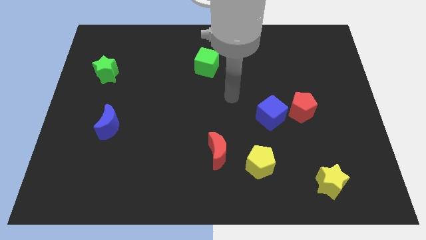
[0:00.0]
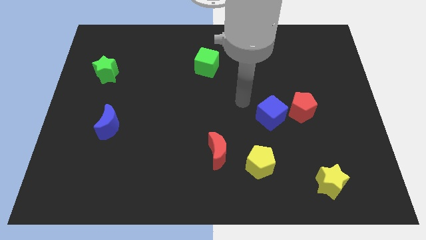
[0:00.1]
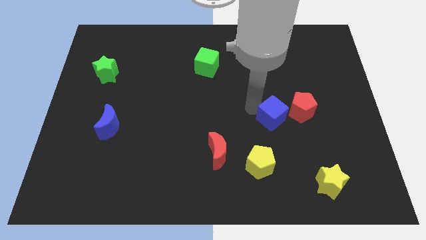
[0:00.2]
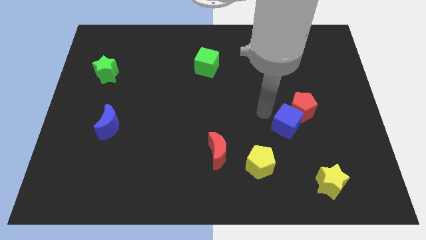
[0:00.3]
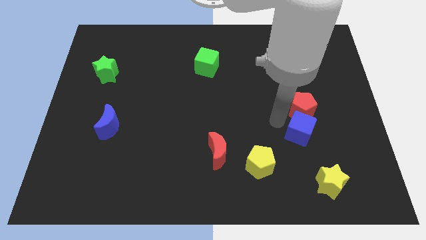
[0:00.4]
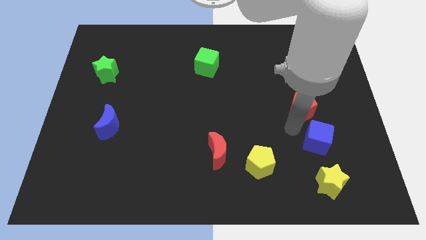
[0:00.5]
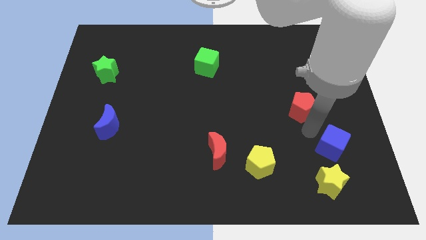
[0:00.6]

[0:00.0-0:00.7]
pull the red pentagon apart from the blue cube

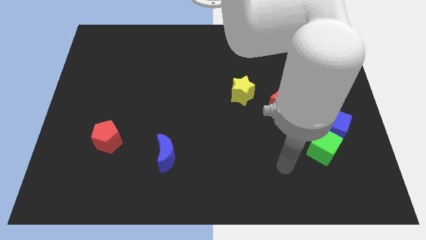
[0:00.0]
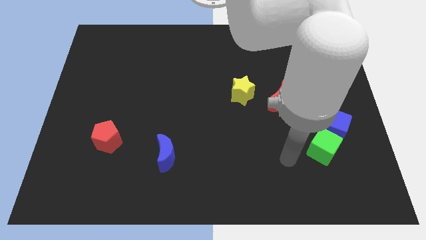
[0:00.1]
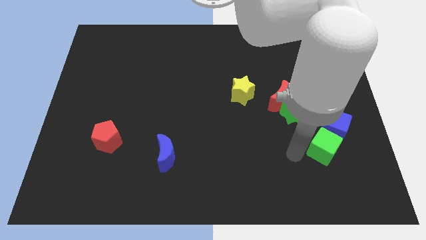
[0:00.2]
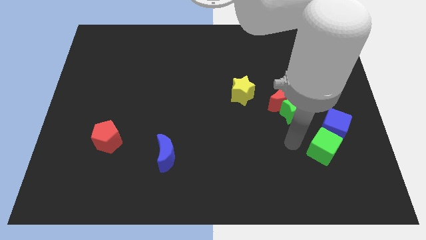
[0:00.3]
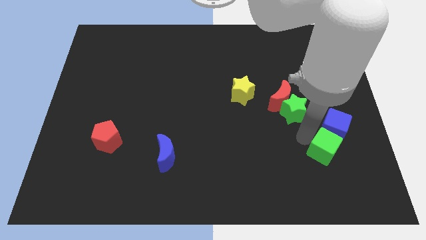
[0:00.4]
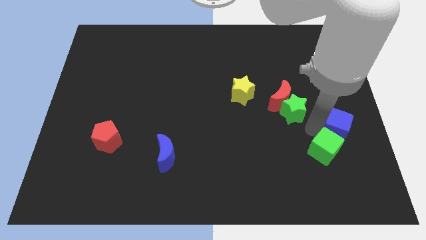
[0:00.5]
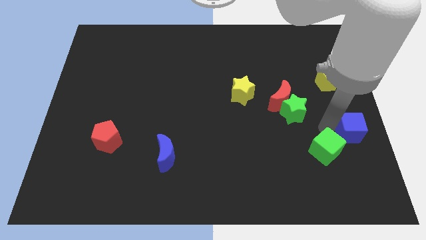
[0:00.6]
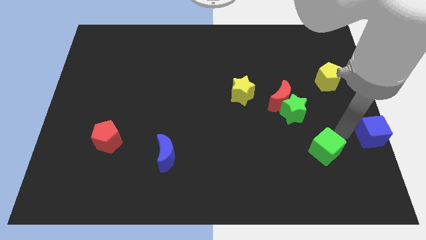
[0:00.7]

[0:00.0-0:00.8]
move the green cube away from the blue cube

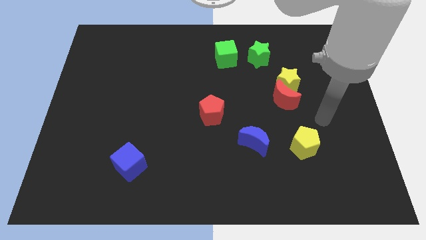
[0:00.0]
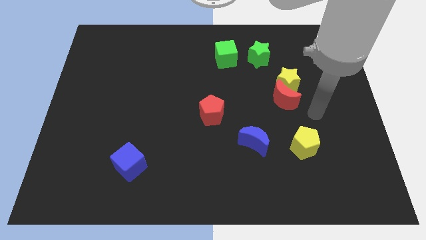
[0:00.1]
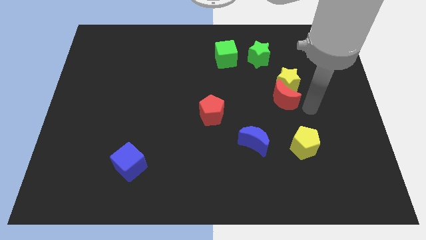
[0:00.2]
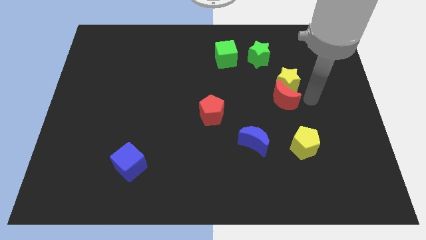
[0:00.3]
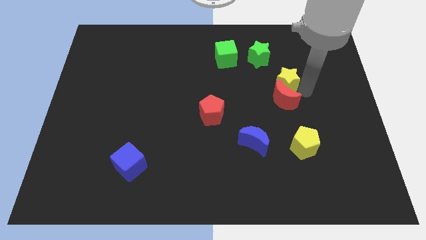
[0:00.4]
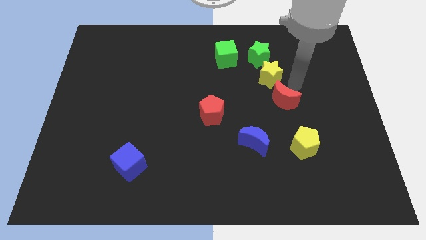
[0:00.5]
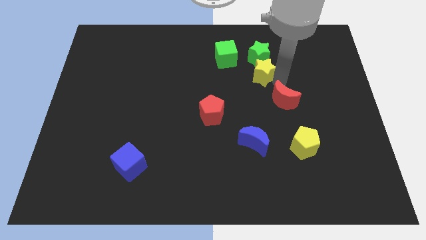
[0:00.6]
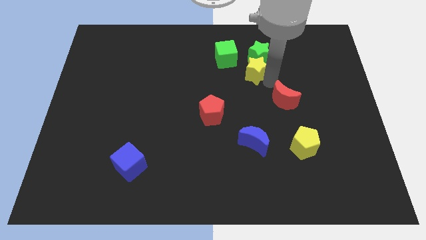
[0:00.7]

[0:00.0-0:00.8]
pull the red moon apart from the yellow star

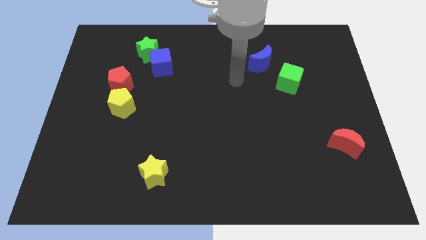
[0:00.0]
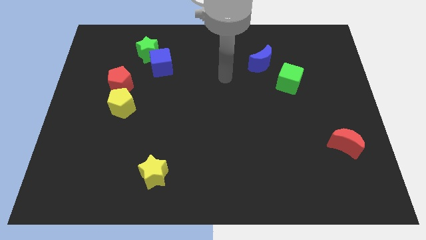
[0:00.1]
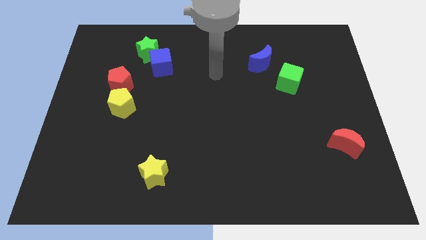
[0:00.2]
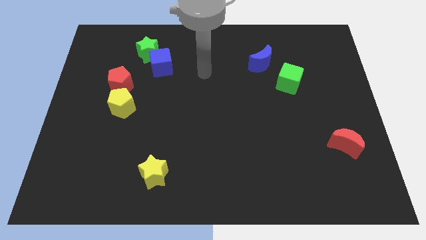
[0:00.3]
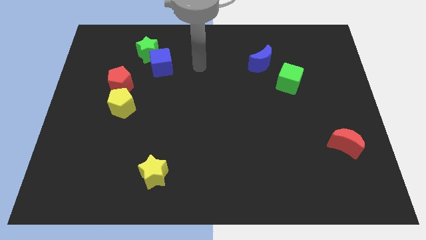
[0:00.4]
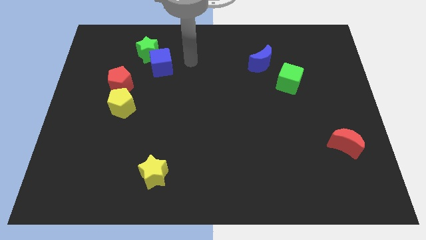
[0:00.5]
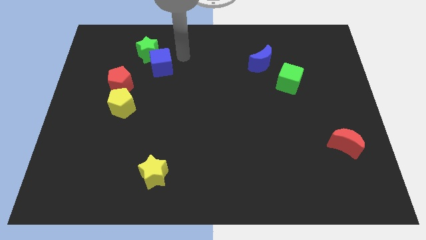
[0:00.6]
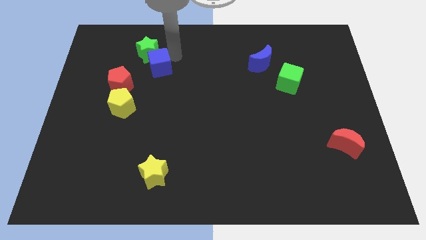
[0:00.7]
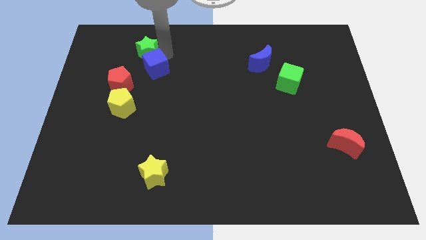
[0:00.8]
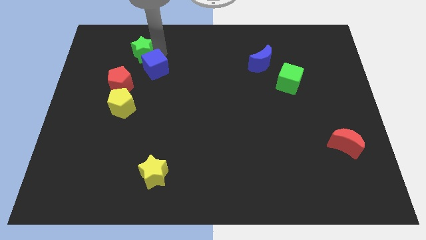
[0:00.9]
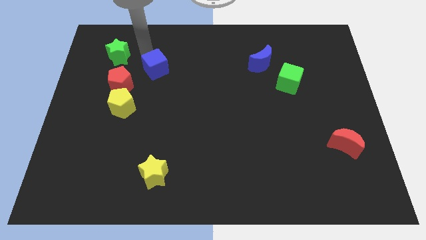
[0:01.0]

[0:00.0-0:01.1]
move the blue cube away from the green star

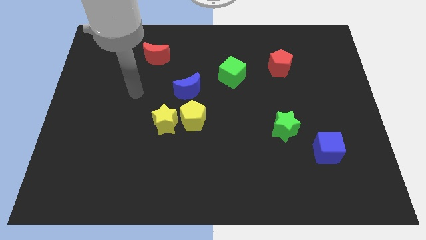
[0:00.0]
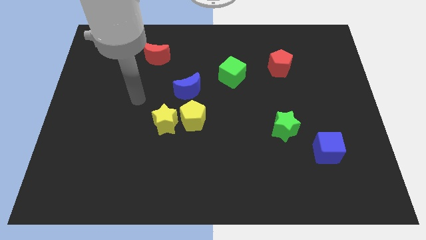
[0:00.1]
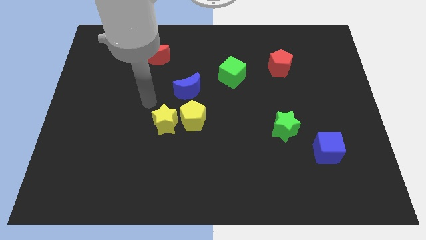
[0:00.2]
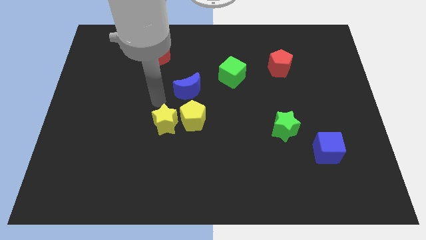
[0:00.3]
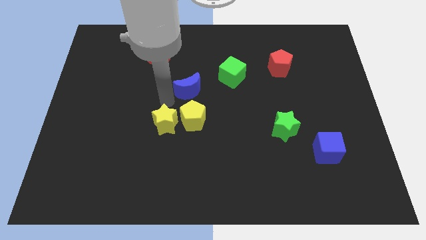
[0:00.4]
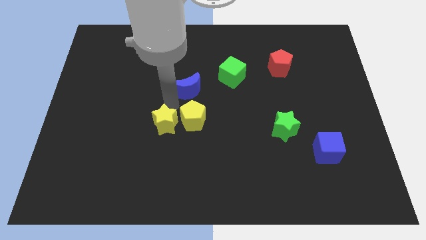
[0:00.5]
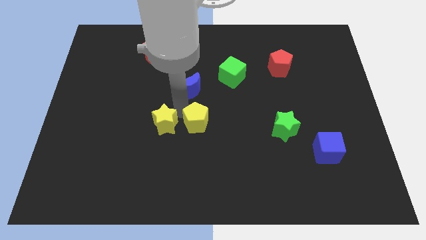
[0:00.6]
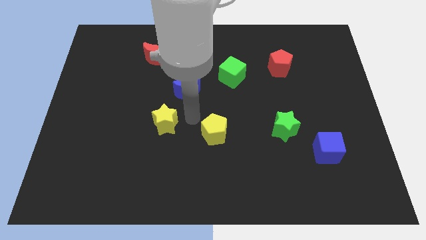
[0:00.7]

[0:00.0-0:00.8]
separate the yellow star from the yellow pentagon

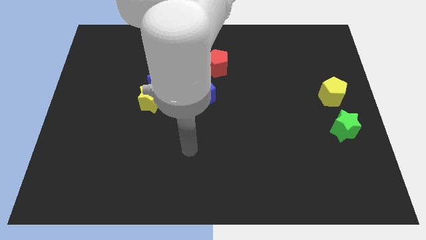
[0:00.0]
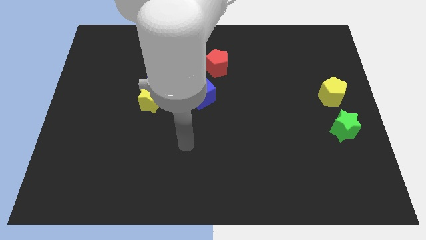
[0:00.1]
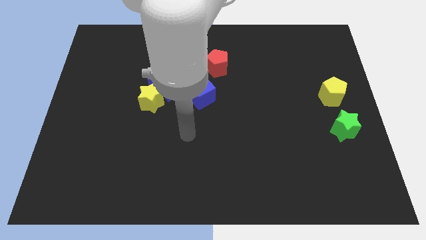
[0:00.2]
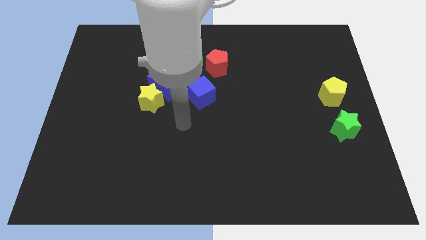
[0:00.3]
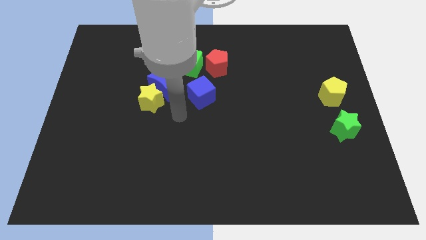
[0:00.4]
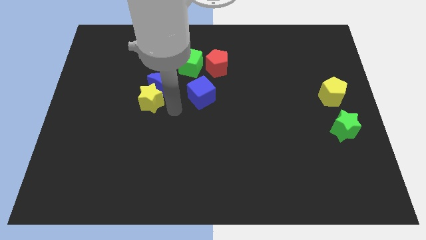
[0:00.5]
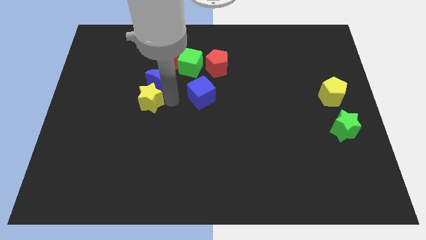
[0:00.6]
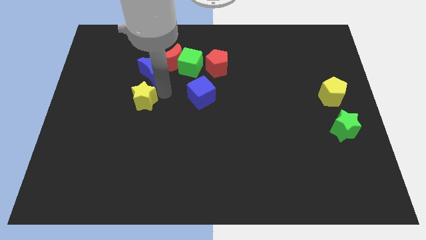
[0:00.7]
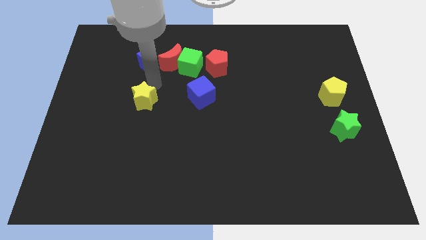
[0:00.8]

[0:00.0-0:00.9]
move the yellow star away from the blue moon

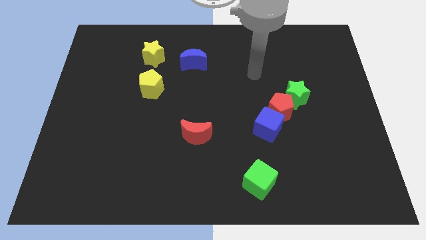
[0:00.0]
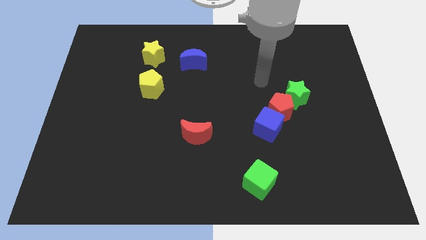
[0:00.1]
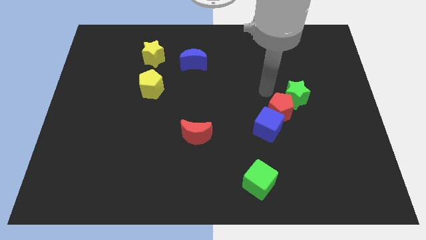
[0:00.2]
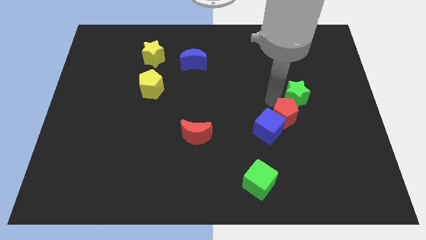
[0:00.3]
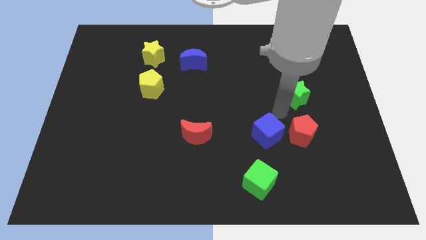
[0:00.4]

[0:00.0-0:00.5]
move the green star away from the red pentagon

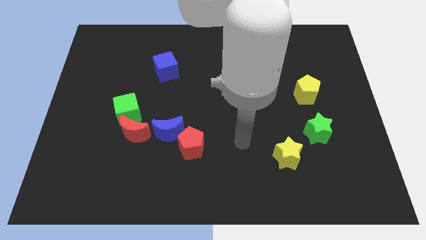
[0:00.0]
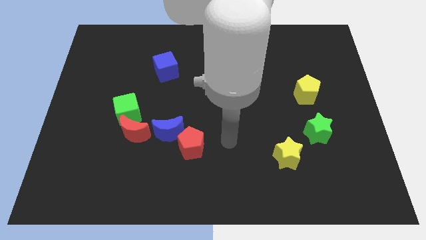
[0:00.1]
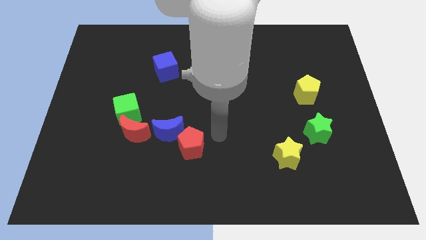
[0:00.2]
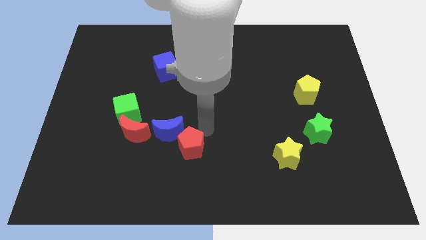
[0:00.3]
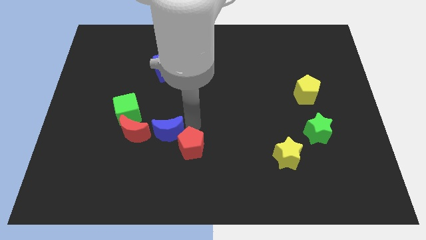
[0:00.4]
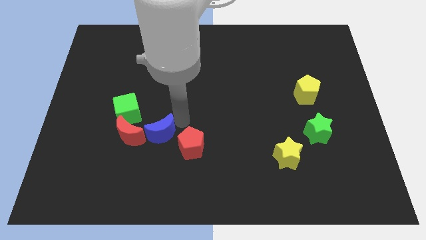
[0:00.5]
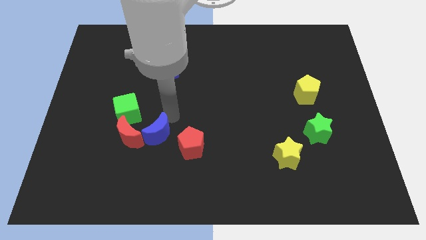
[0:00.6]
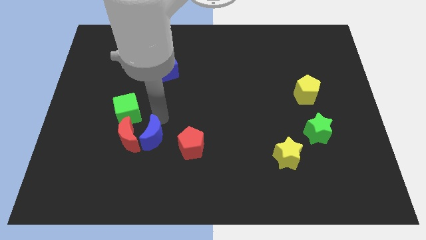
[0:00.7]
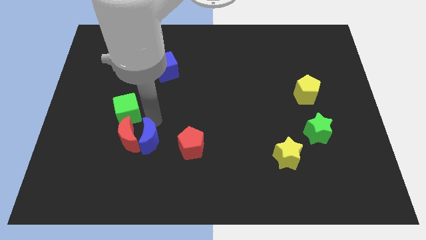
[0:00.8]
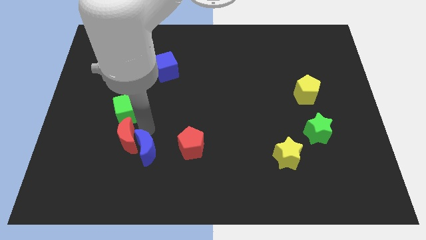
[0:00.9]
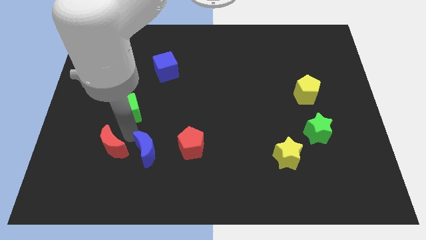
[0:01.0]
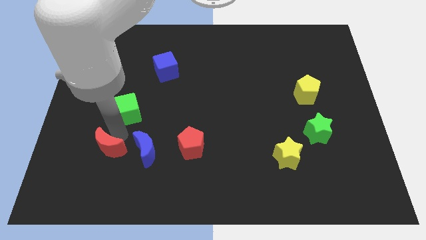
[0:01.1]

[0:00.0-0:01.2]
separate the green cube from the red moon

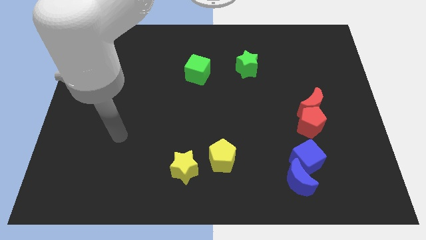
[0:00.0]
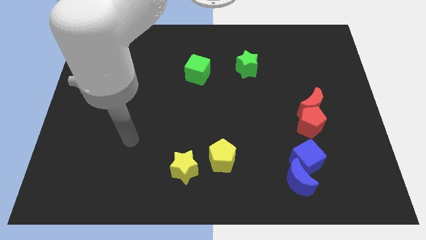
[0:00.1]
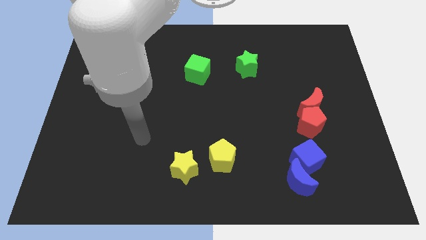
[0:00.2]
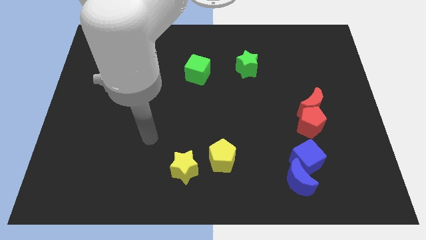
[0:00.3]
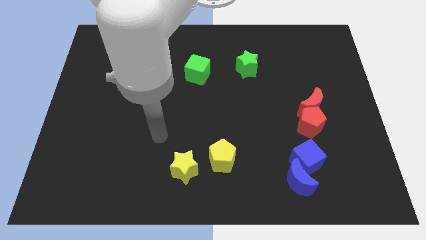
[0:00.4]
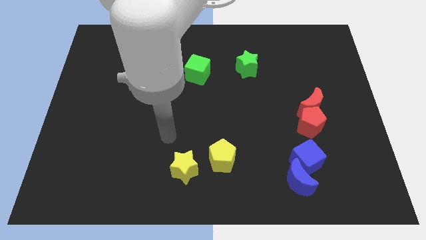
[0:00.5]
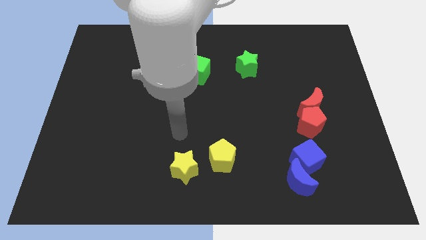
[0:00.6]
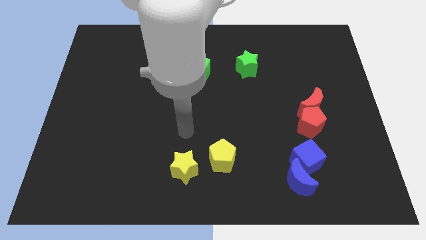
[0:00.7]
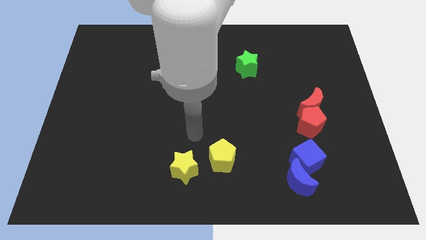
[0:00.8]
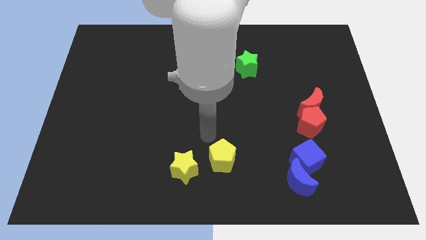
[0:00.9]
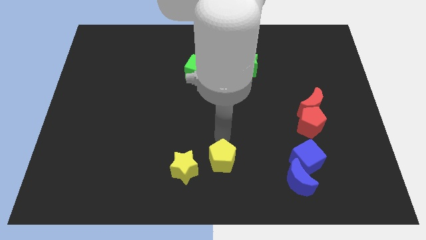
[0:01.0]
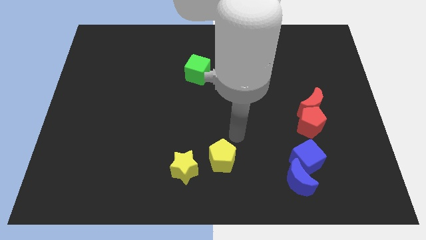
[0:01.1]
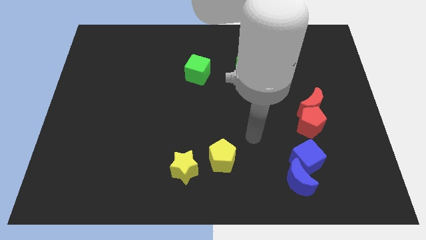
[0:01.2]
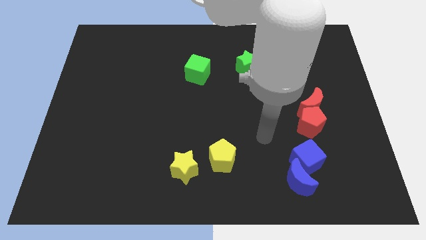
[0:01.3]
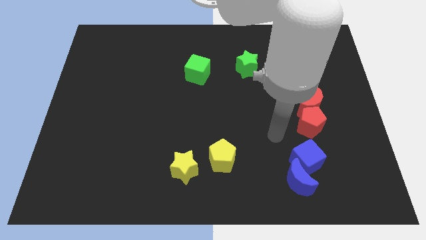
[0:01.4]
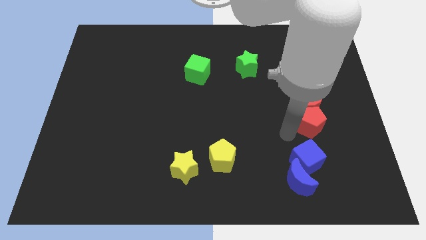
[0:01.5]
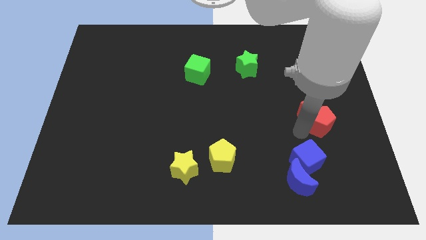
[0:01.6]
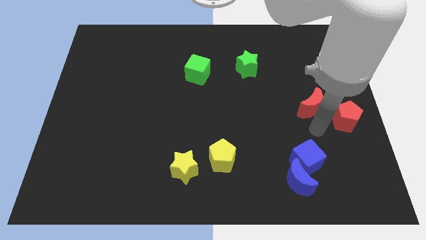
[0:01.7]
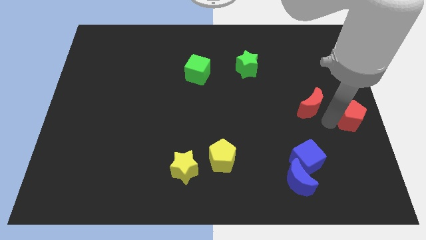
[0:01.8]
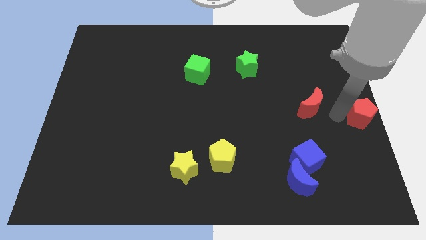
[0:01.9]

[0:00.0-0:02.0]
separate the red moon from the red pentagon

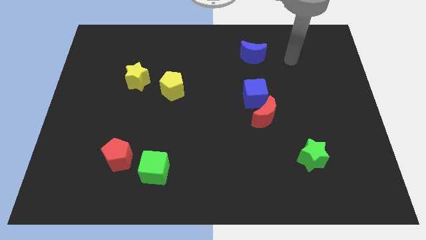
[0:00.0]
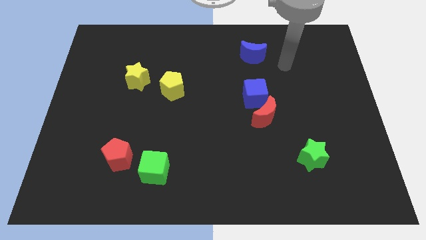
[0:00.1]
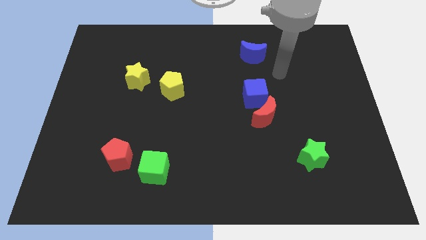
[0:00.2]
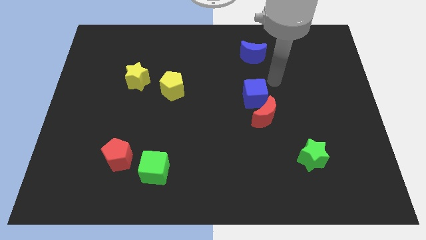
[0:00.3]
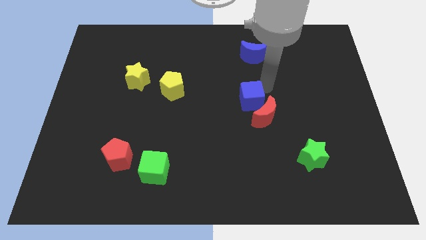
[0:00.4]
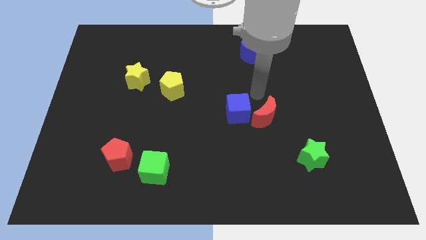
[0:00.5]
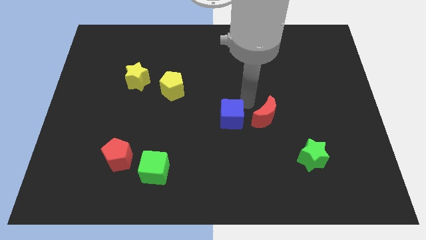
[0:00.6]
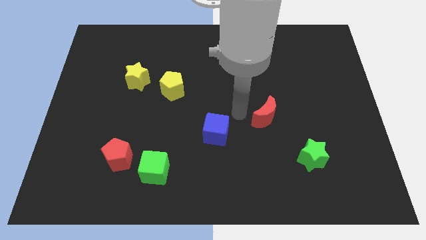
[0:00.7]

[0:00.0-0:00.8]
separate the red moon from the blue cube
